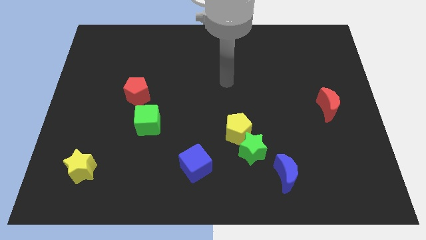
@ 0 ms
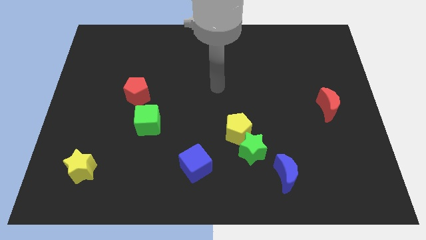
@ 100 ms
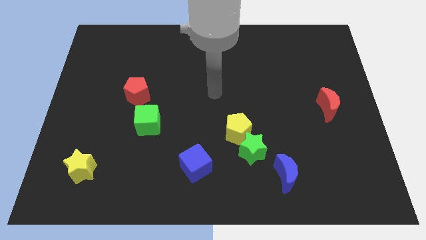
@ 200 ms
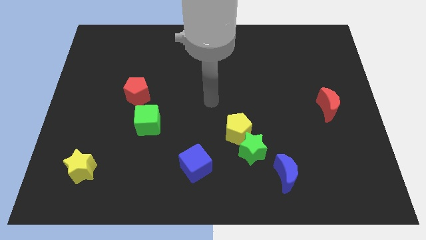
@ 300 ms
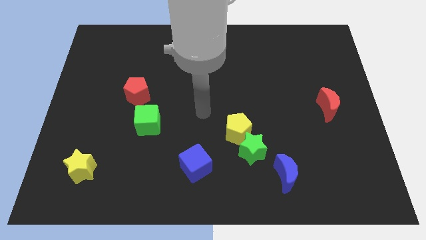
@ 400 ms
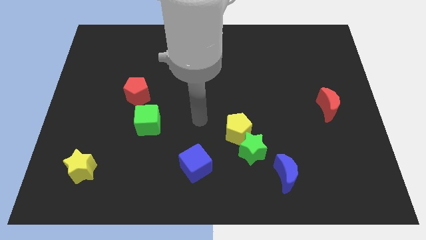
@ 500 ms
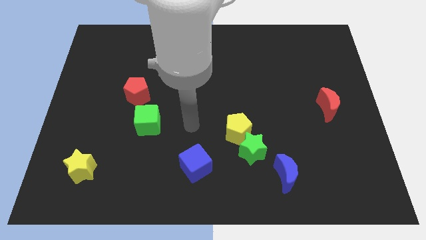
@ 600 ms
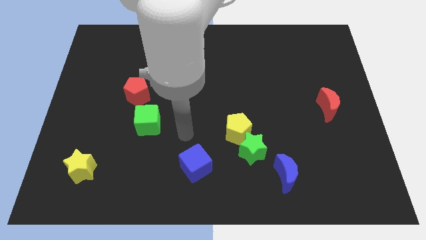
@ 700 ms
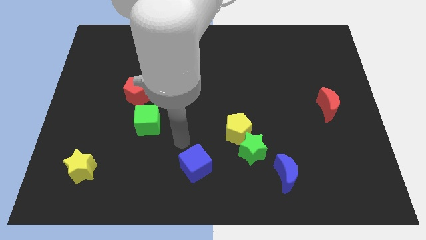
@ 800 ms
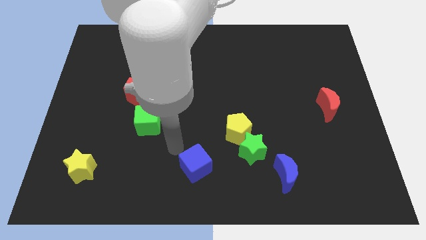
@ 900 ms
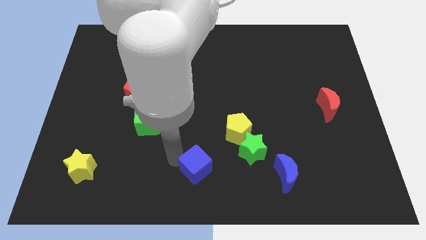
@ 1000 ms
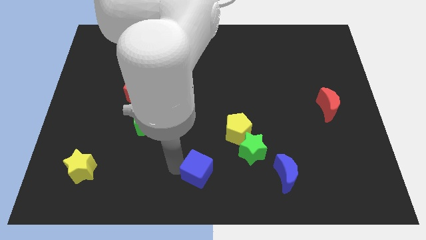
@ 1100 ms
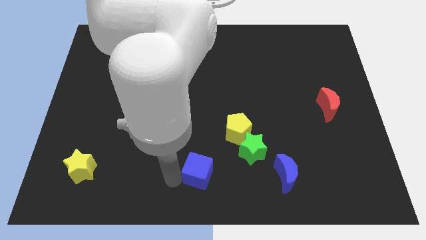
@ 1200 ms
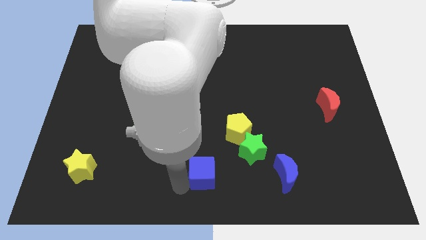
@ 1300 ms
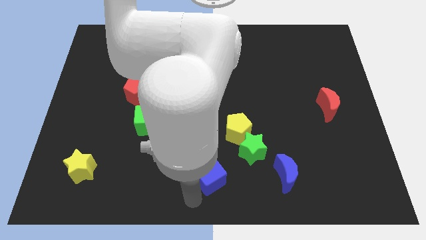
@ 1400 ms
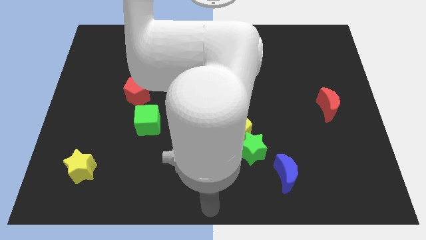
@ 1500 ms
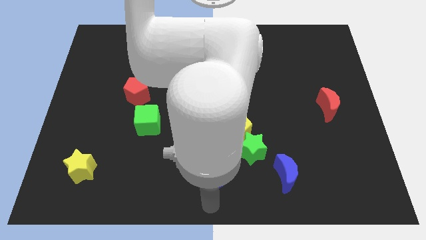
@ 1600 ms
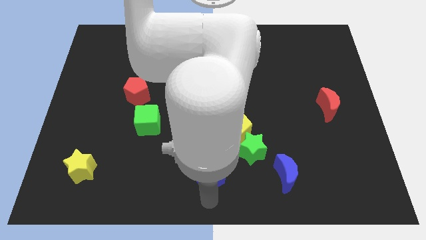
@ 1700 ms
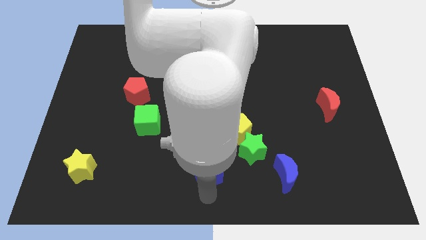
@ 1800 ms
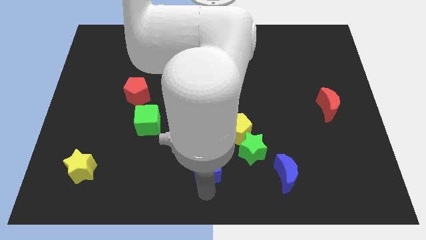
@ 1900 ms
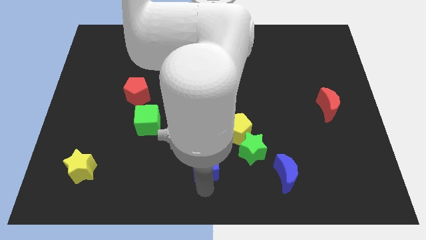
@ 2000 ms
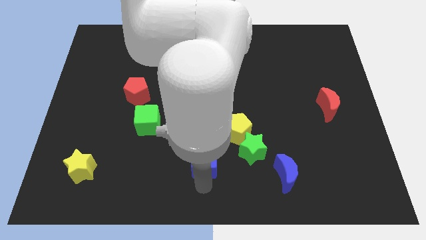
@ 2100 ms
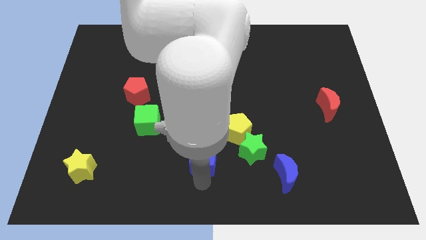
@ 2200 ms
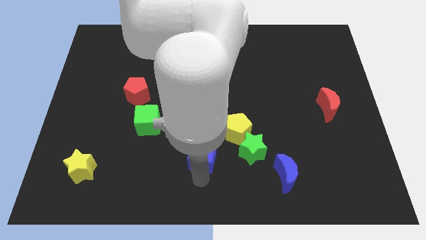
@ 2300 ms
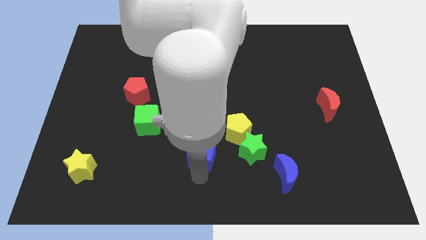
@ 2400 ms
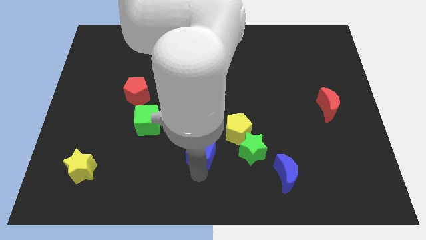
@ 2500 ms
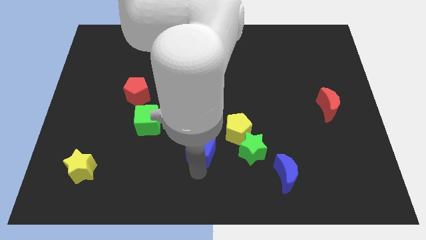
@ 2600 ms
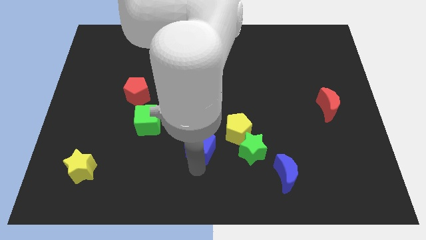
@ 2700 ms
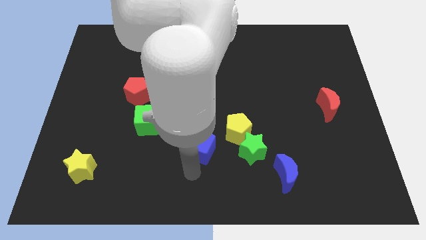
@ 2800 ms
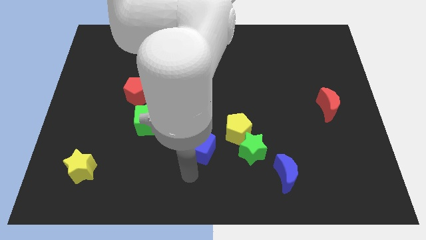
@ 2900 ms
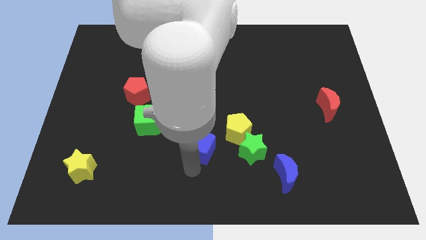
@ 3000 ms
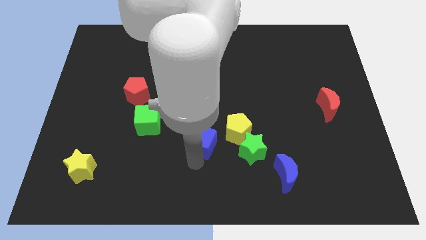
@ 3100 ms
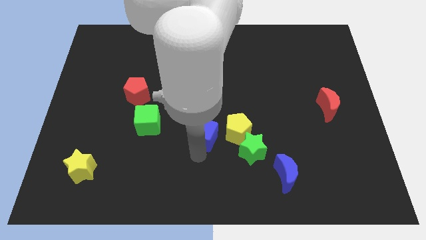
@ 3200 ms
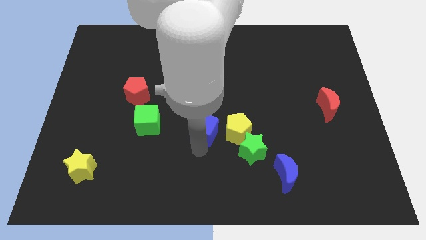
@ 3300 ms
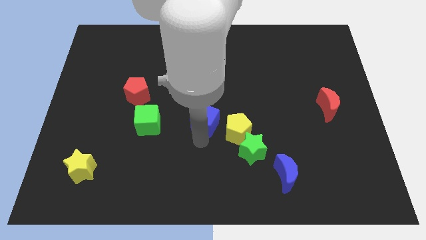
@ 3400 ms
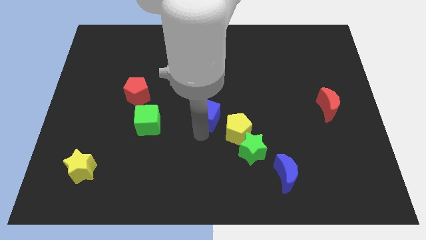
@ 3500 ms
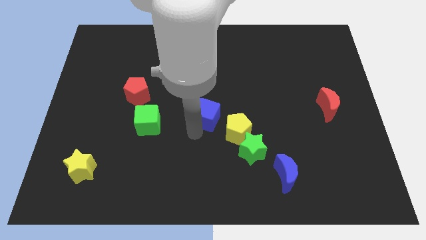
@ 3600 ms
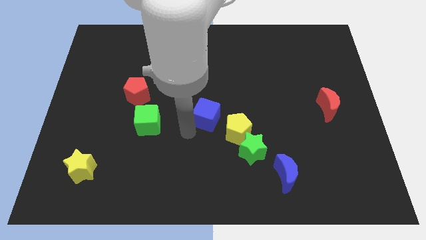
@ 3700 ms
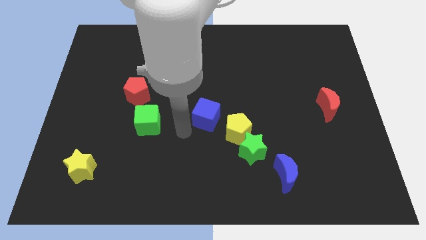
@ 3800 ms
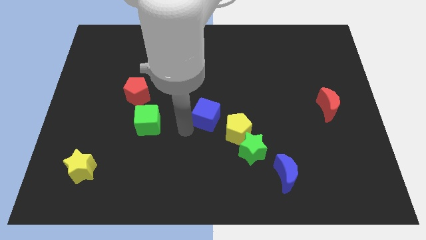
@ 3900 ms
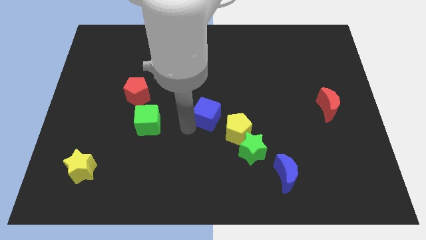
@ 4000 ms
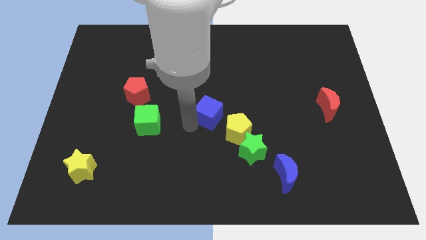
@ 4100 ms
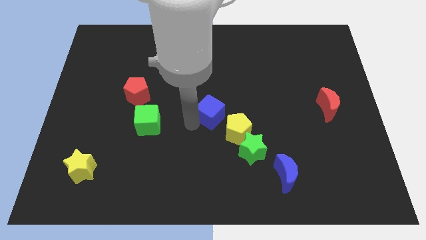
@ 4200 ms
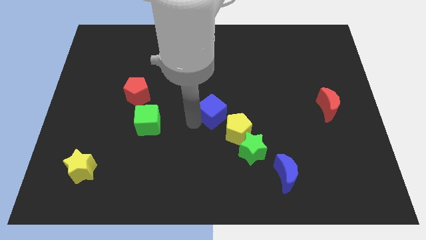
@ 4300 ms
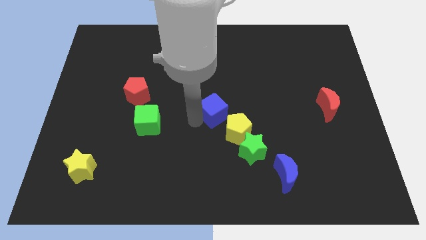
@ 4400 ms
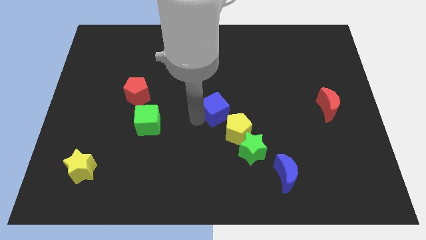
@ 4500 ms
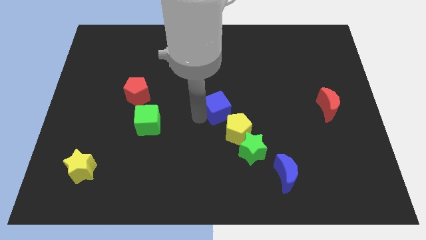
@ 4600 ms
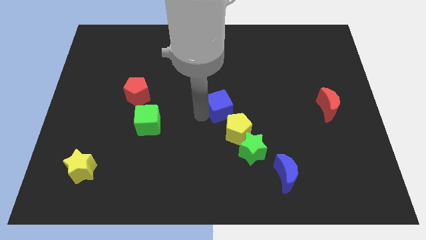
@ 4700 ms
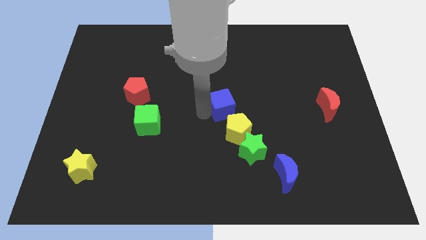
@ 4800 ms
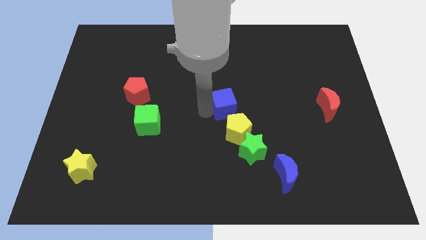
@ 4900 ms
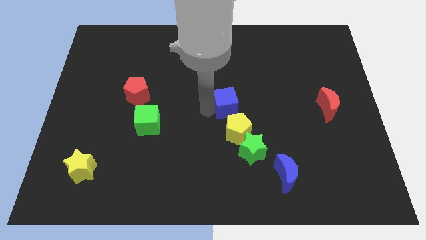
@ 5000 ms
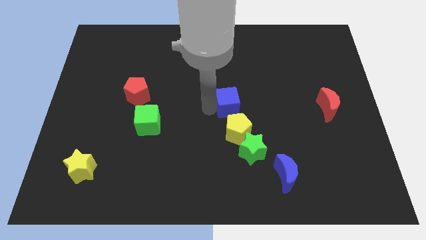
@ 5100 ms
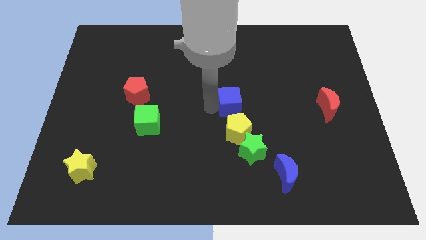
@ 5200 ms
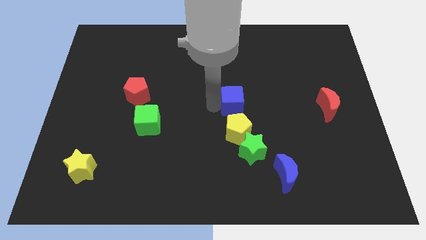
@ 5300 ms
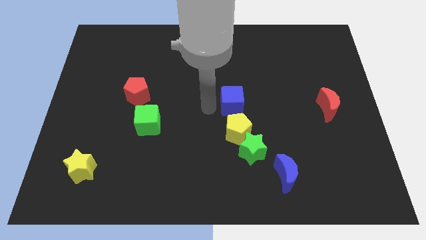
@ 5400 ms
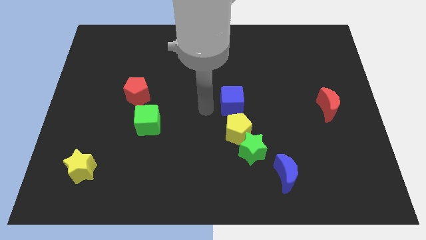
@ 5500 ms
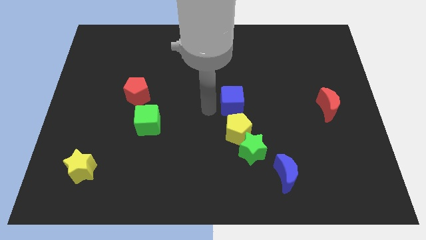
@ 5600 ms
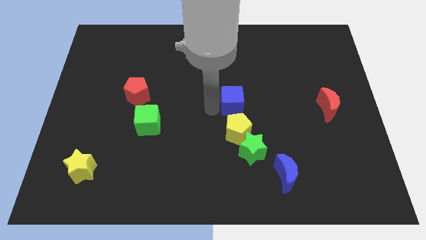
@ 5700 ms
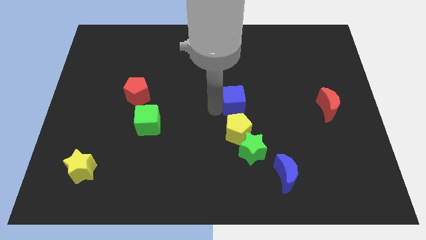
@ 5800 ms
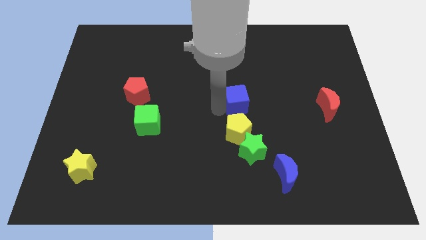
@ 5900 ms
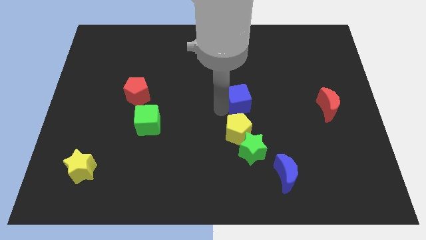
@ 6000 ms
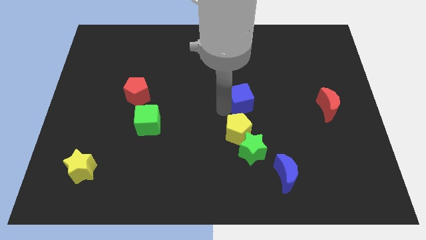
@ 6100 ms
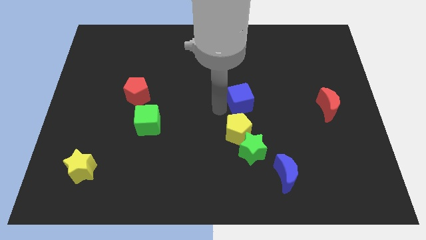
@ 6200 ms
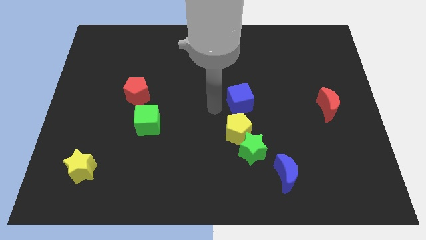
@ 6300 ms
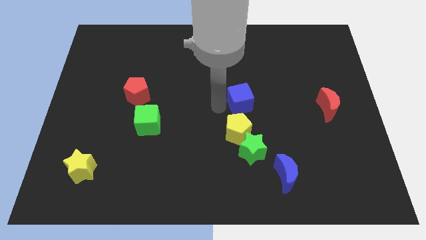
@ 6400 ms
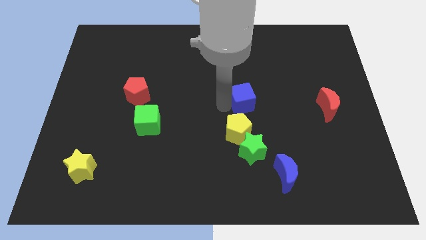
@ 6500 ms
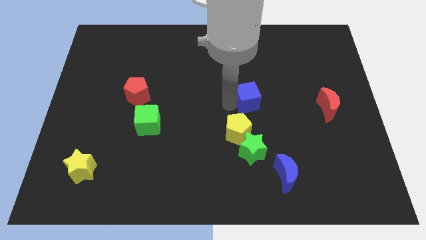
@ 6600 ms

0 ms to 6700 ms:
push the blue cube upwards and right diagonally

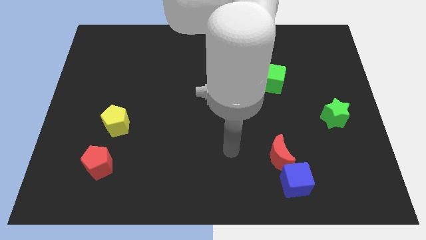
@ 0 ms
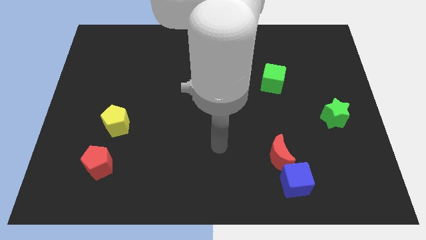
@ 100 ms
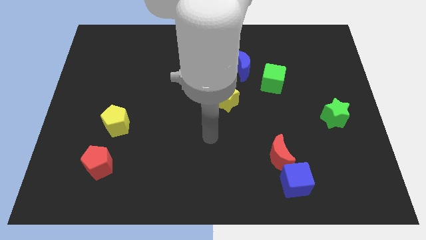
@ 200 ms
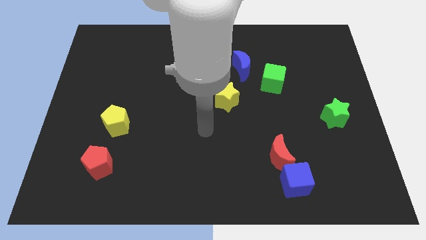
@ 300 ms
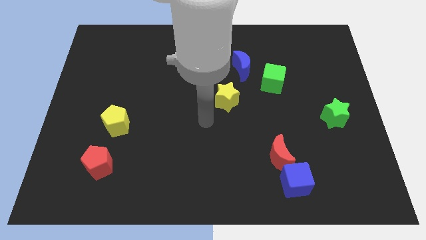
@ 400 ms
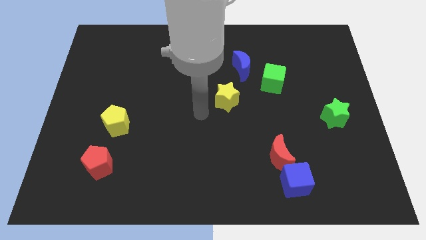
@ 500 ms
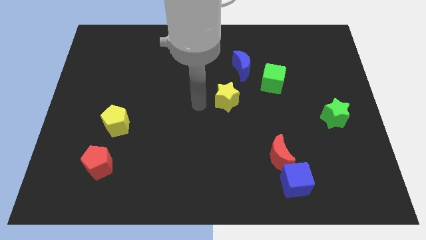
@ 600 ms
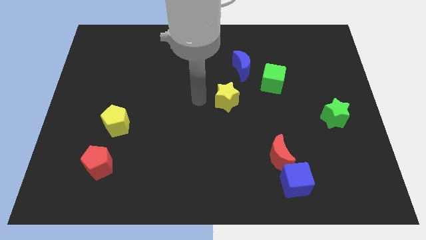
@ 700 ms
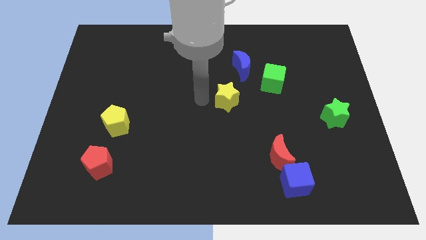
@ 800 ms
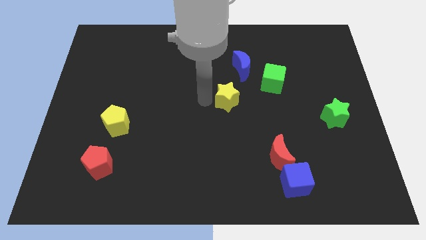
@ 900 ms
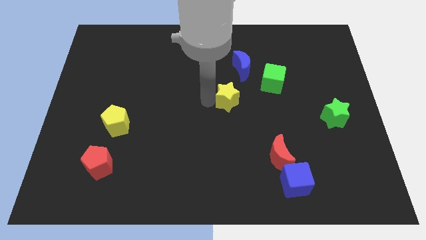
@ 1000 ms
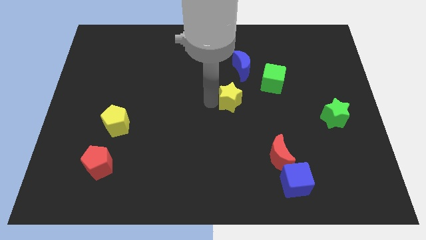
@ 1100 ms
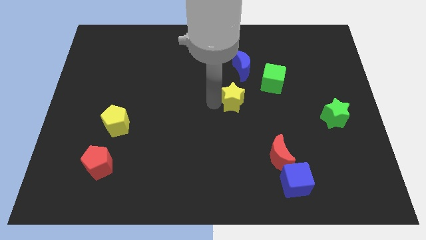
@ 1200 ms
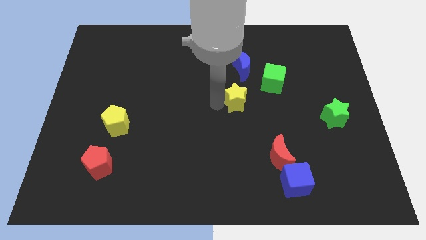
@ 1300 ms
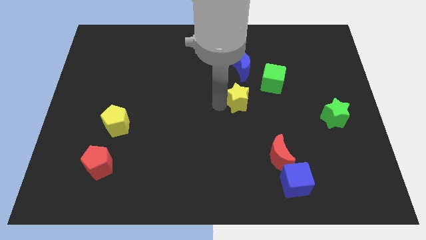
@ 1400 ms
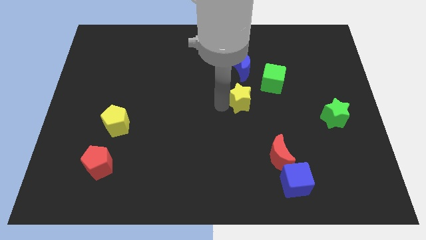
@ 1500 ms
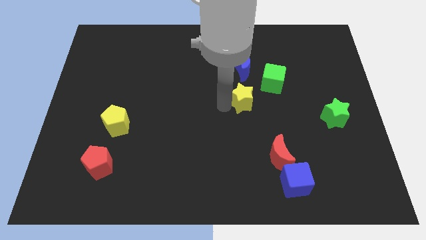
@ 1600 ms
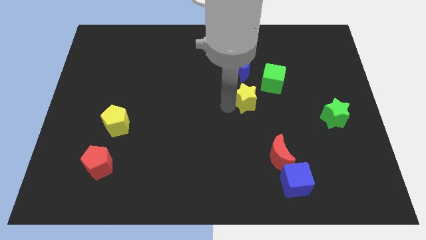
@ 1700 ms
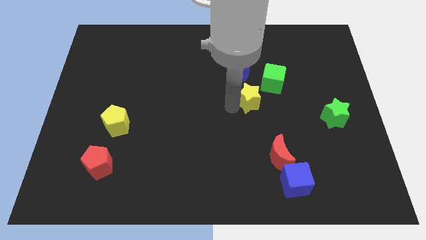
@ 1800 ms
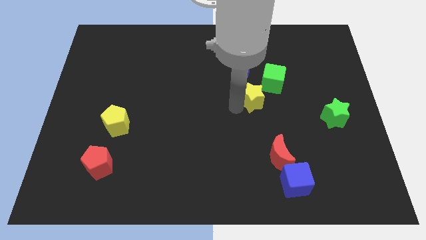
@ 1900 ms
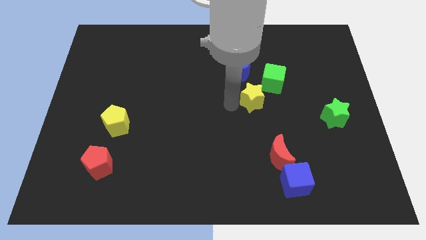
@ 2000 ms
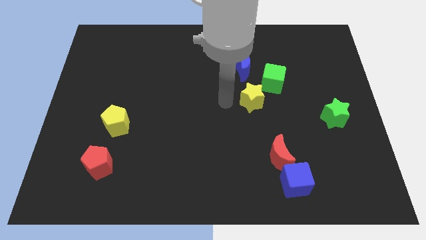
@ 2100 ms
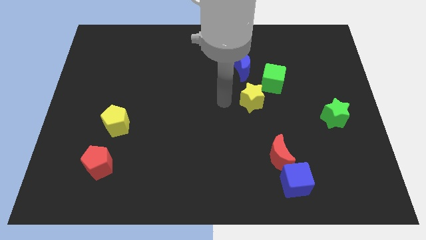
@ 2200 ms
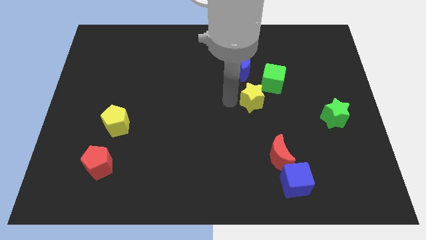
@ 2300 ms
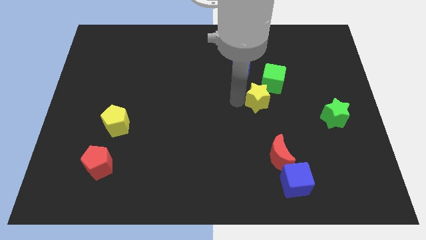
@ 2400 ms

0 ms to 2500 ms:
move the yellow star right somewhat
